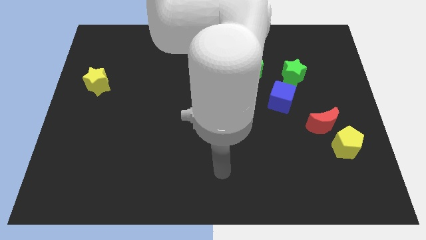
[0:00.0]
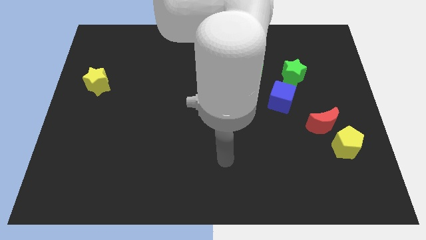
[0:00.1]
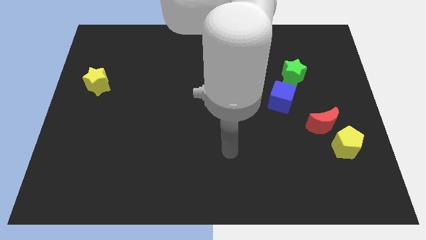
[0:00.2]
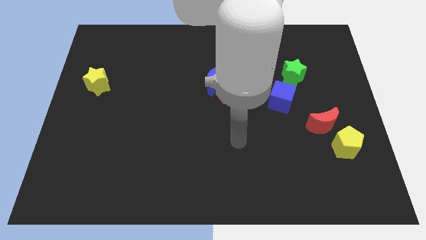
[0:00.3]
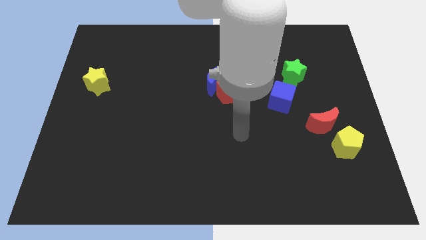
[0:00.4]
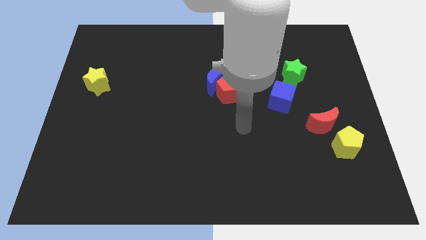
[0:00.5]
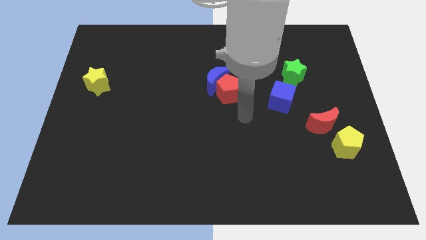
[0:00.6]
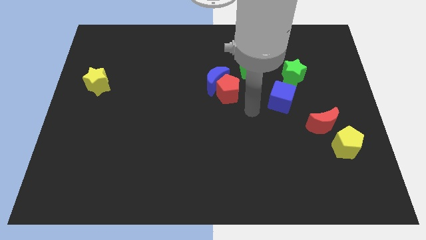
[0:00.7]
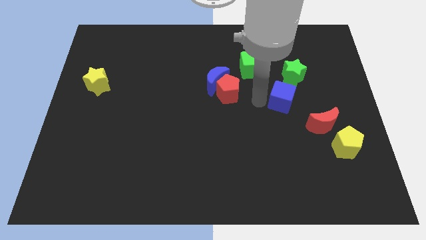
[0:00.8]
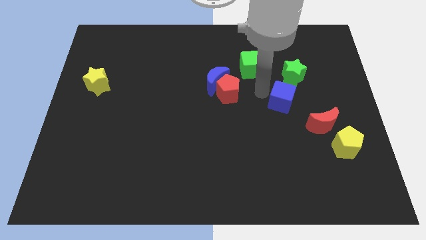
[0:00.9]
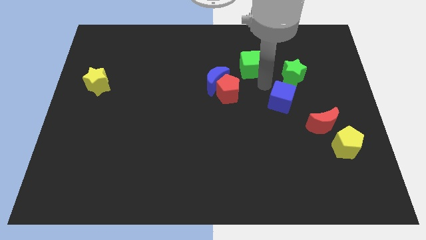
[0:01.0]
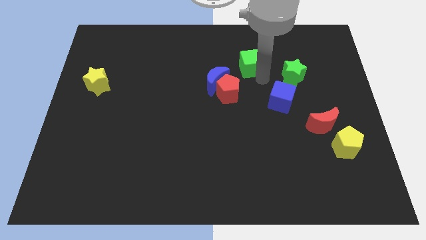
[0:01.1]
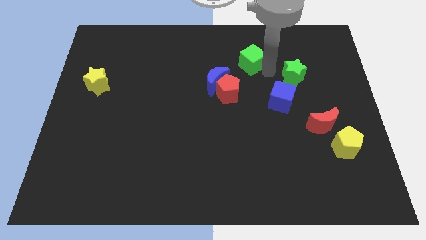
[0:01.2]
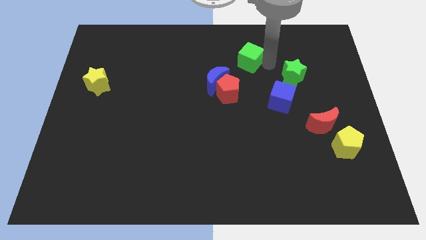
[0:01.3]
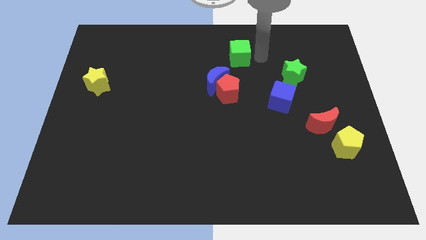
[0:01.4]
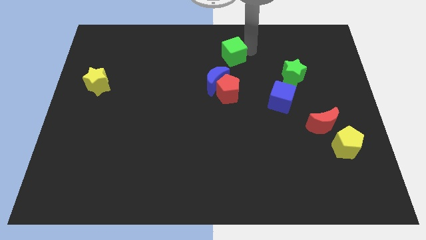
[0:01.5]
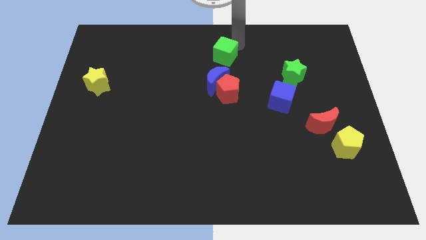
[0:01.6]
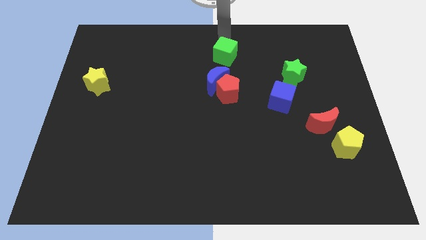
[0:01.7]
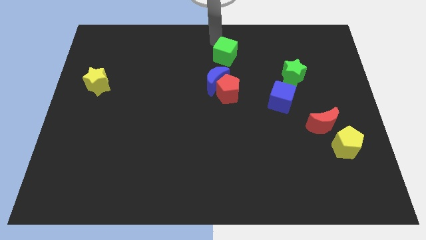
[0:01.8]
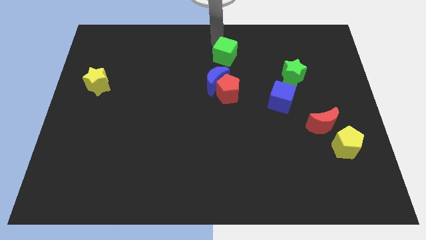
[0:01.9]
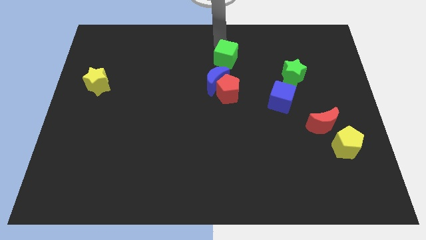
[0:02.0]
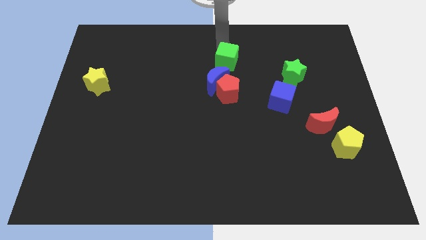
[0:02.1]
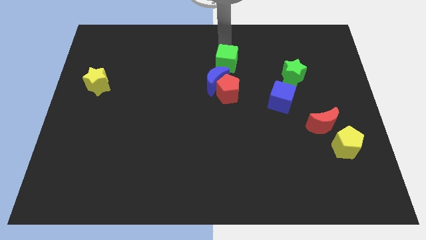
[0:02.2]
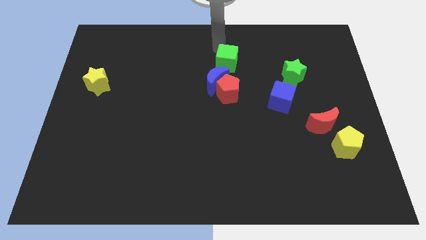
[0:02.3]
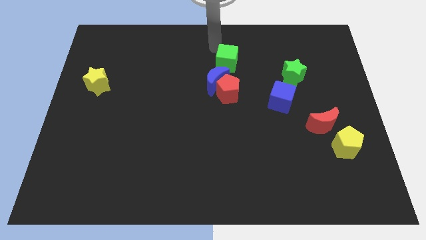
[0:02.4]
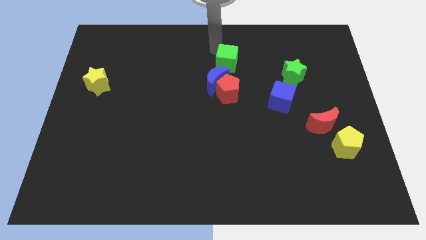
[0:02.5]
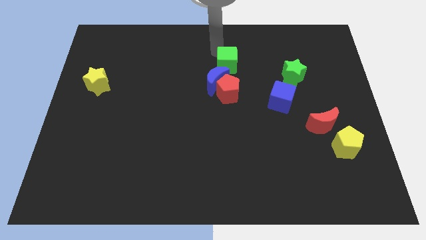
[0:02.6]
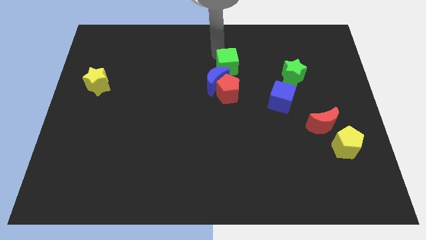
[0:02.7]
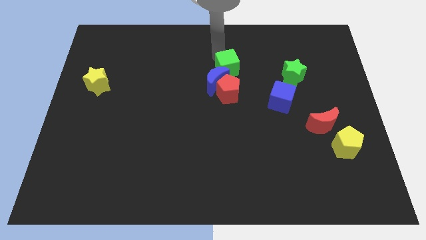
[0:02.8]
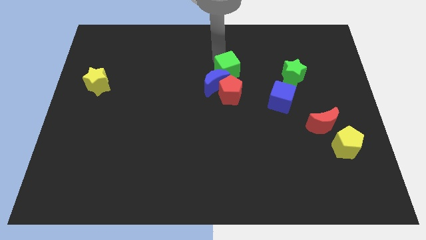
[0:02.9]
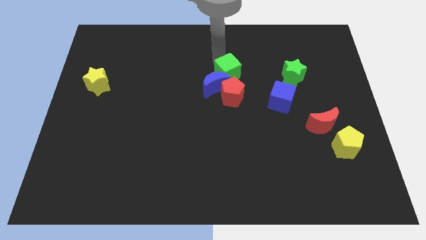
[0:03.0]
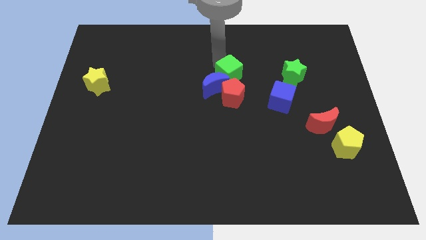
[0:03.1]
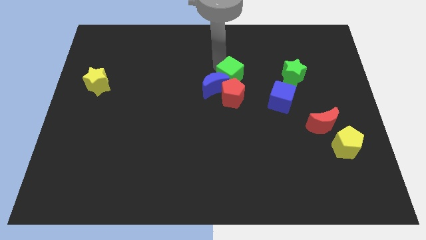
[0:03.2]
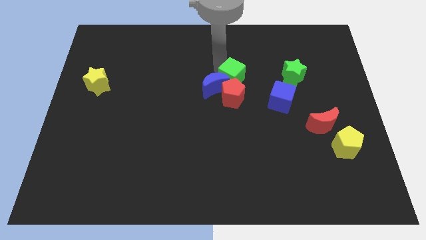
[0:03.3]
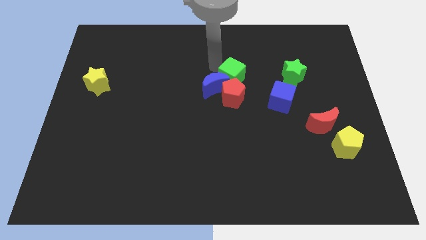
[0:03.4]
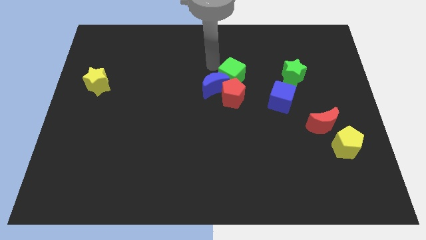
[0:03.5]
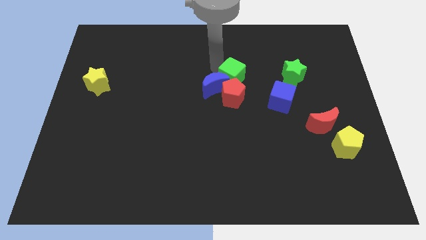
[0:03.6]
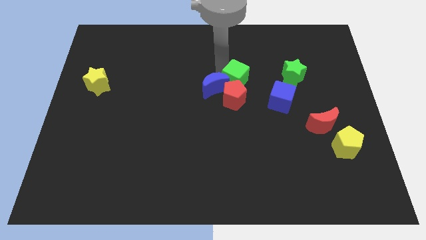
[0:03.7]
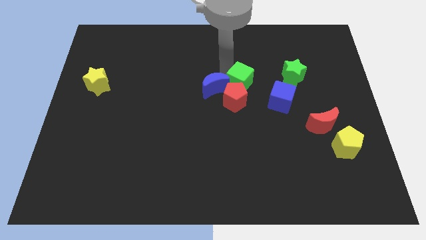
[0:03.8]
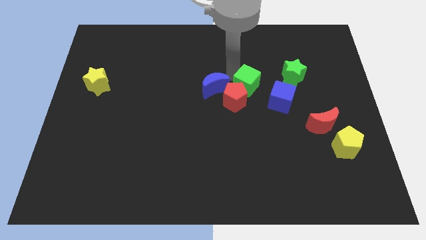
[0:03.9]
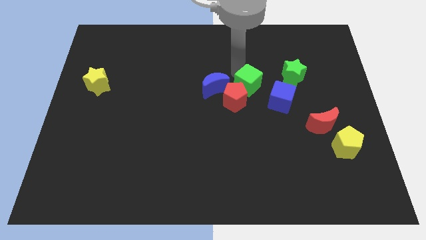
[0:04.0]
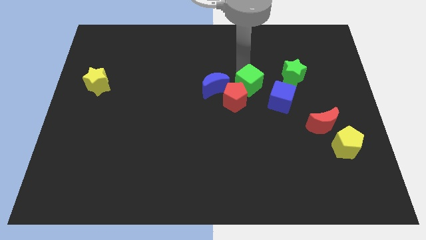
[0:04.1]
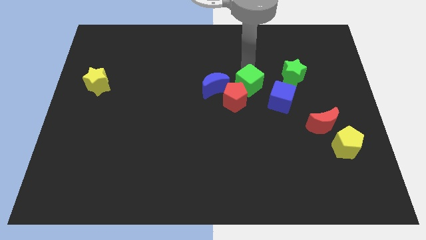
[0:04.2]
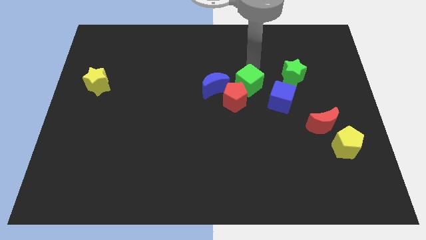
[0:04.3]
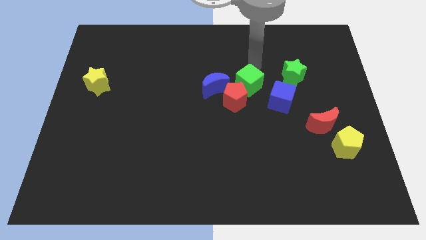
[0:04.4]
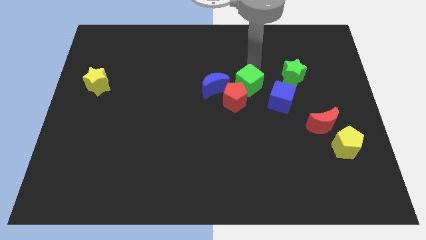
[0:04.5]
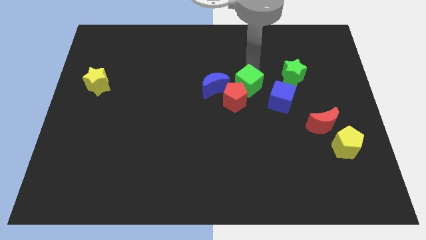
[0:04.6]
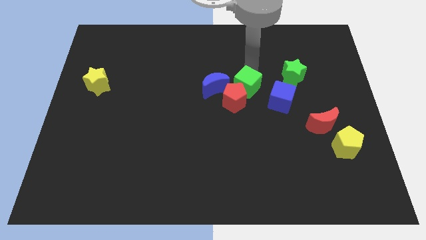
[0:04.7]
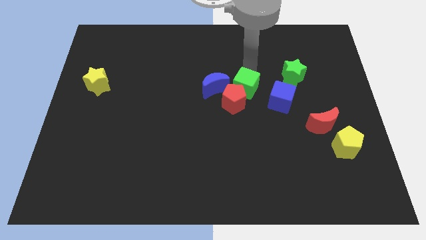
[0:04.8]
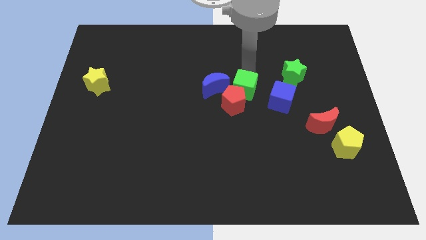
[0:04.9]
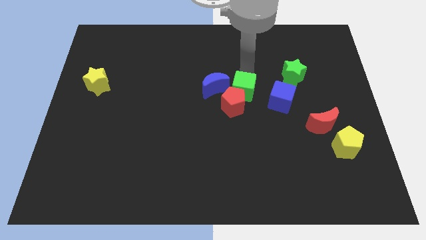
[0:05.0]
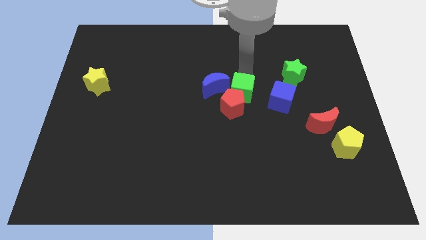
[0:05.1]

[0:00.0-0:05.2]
slide the green cube a little bit diagonally down and left

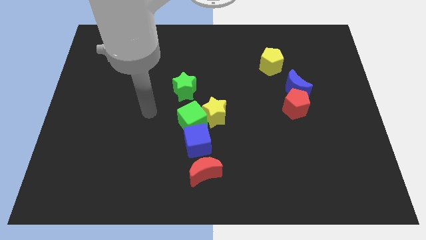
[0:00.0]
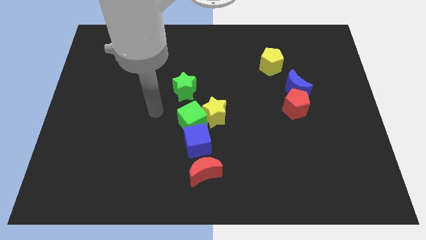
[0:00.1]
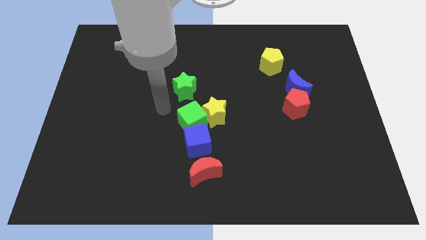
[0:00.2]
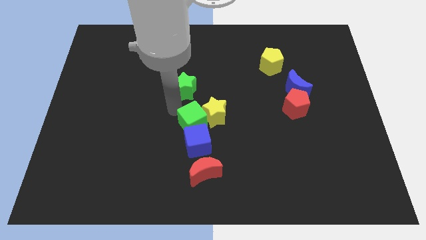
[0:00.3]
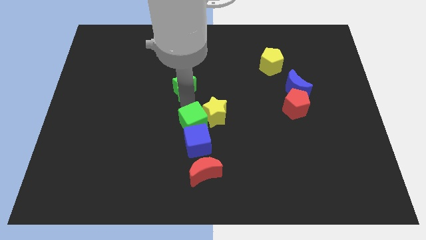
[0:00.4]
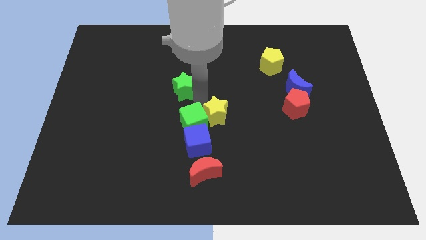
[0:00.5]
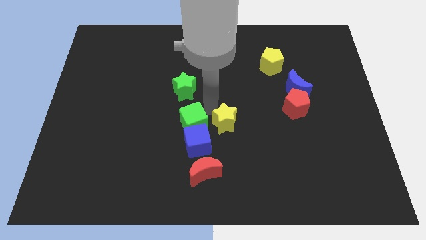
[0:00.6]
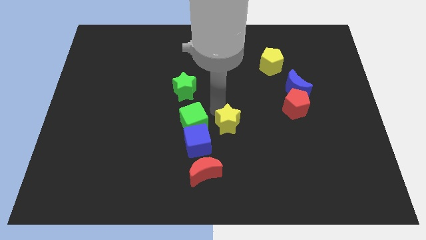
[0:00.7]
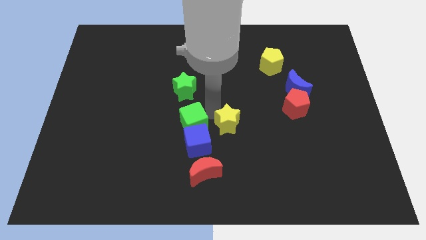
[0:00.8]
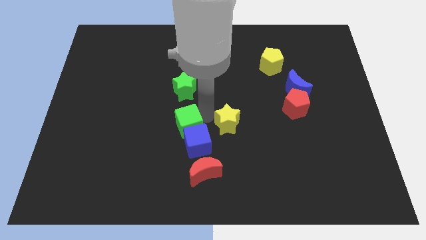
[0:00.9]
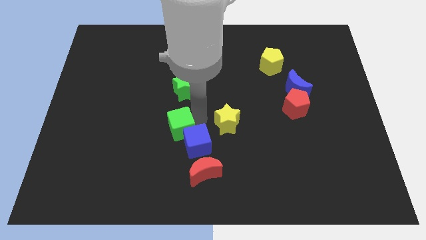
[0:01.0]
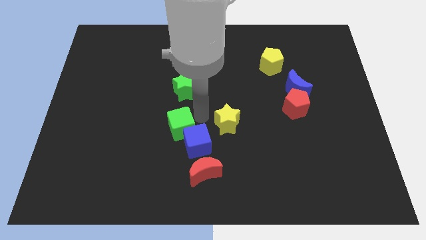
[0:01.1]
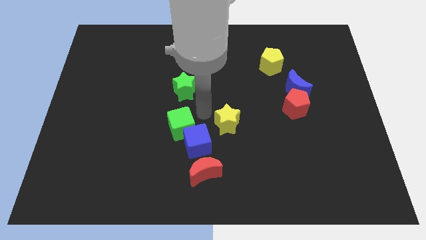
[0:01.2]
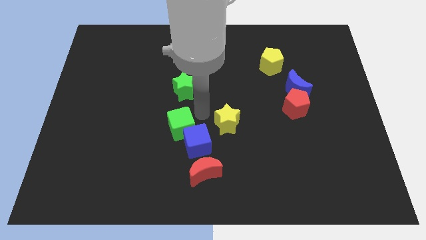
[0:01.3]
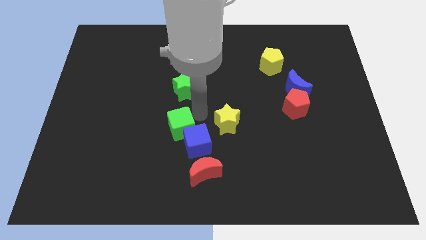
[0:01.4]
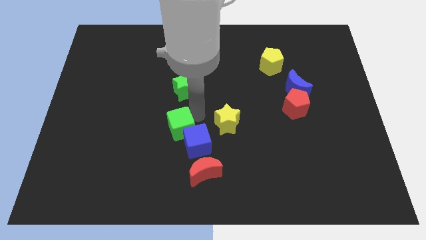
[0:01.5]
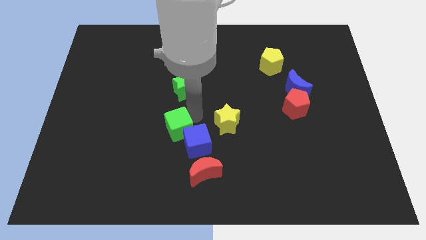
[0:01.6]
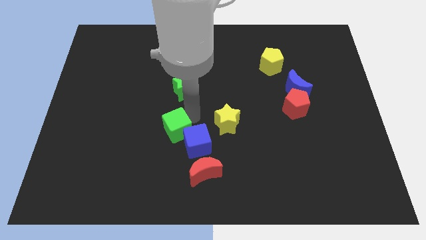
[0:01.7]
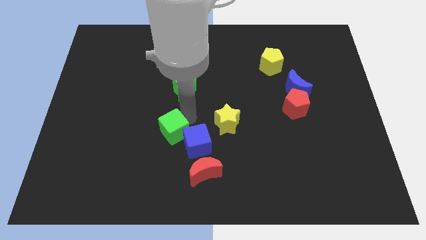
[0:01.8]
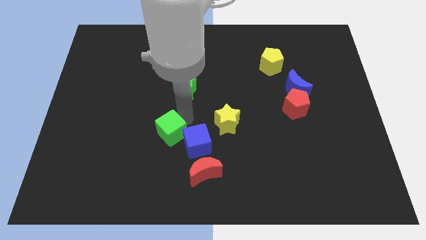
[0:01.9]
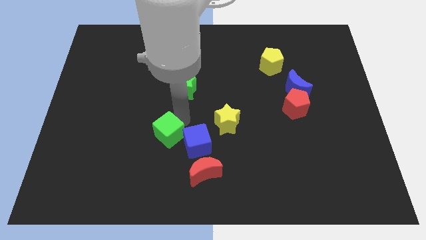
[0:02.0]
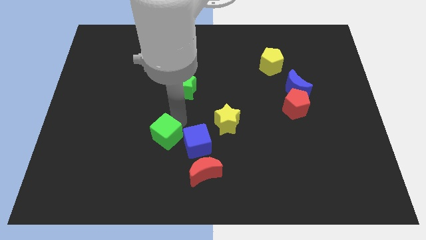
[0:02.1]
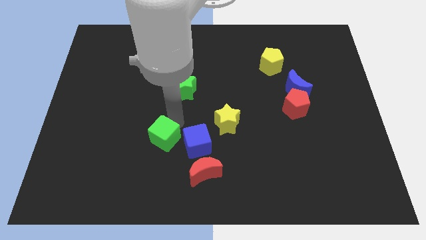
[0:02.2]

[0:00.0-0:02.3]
move the green cube slightly down and to the left diagonally
